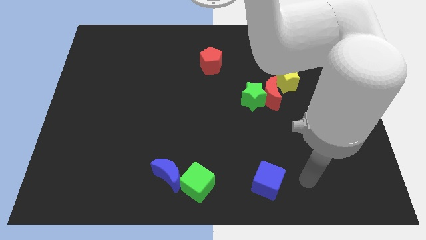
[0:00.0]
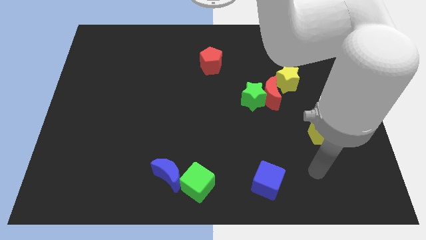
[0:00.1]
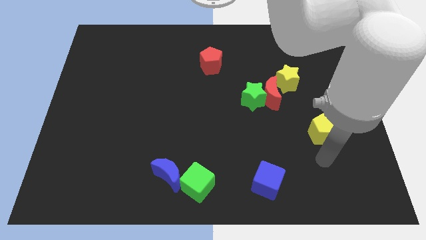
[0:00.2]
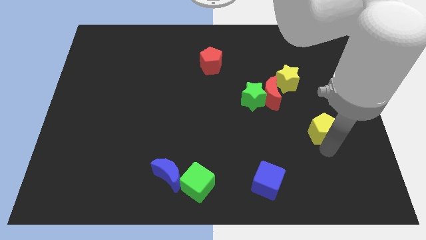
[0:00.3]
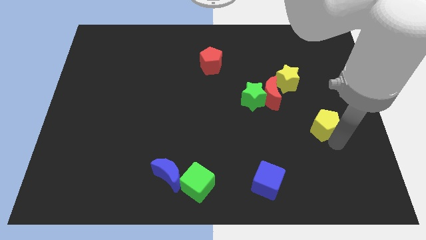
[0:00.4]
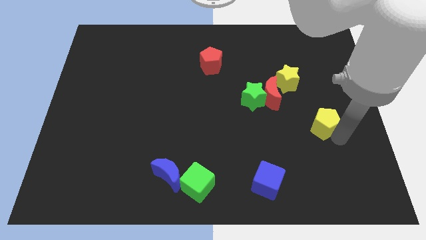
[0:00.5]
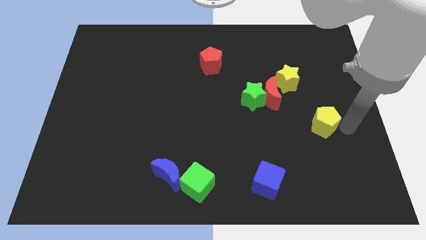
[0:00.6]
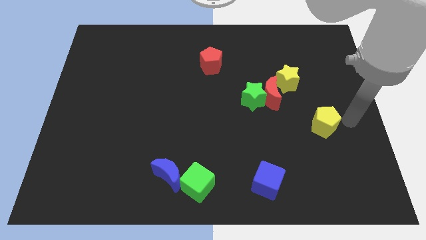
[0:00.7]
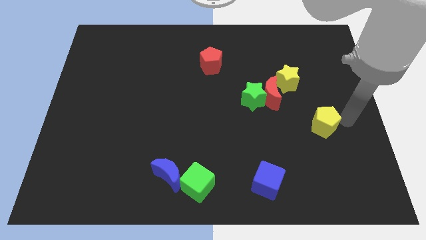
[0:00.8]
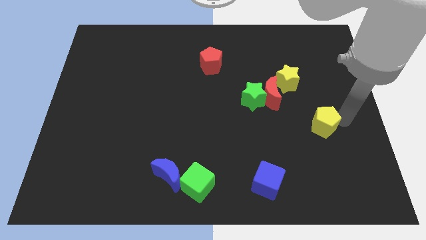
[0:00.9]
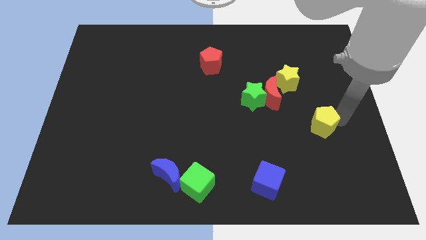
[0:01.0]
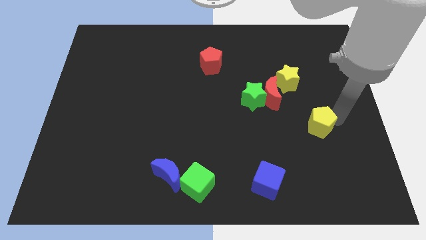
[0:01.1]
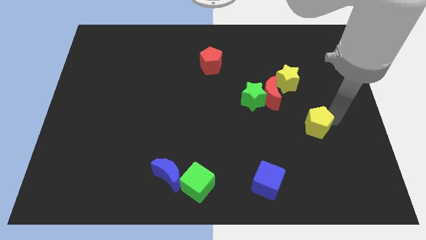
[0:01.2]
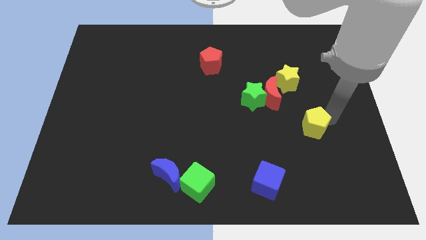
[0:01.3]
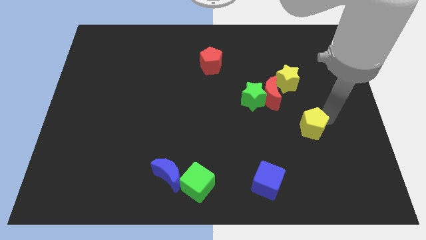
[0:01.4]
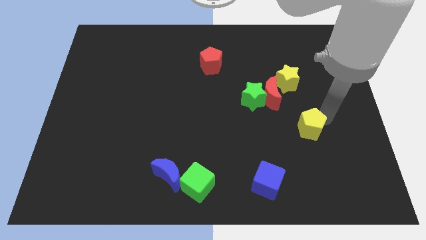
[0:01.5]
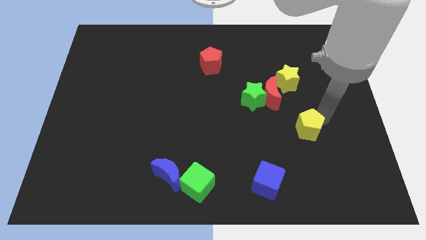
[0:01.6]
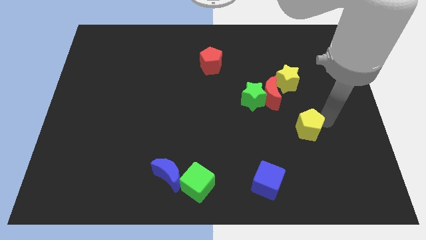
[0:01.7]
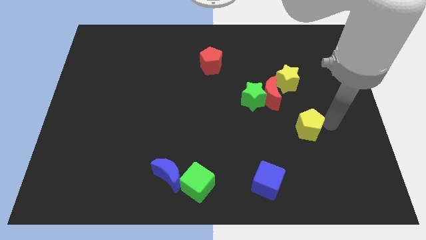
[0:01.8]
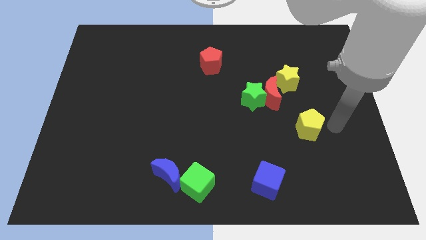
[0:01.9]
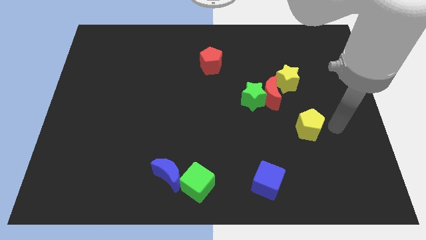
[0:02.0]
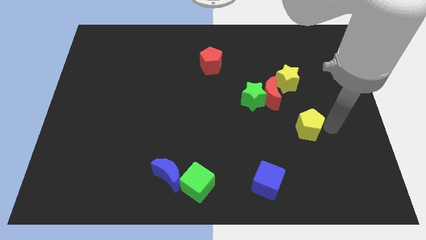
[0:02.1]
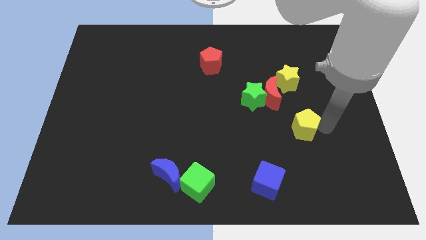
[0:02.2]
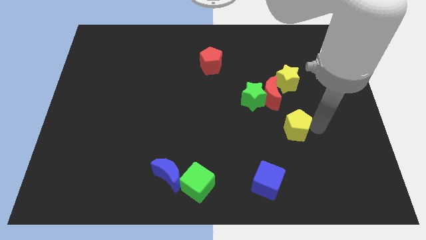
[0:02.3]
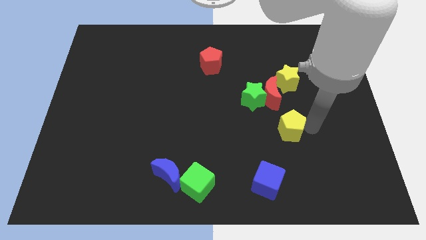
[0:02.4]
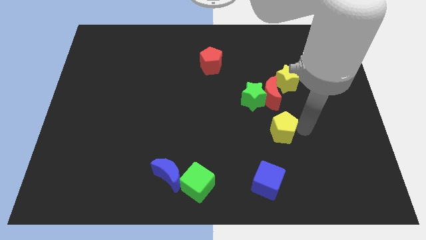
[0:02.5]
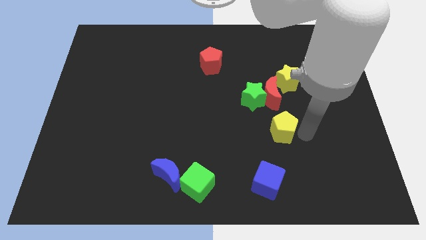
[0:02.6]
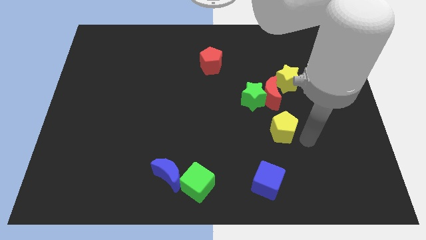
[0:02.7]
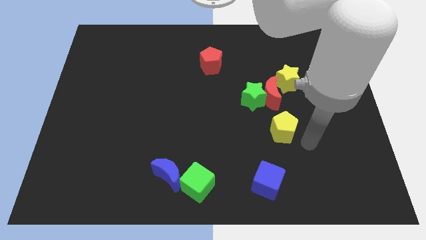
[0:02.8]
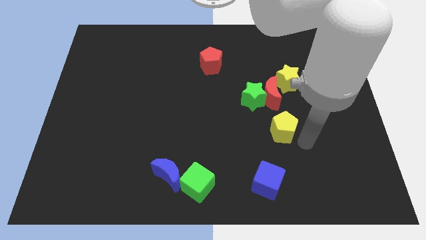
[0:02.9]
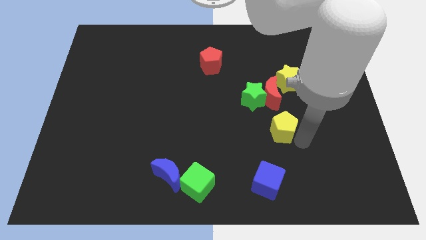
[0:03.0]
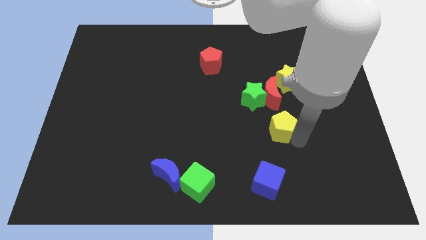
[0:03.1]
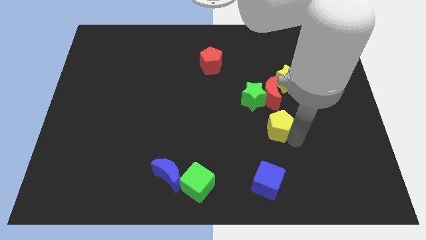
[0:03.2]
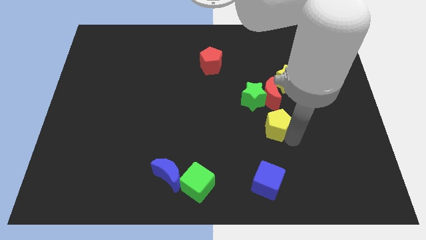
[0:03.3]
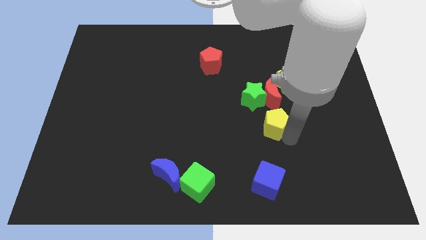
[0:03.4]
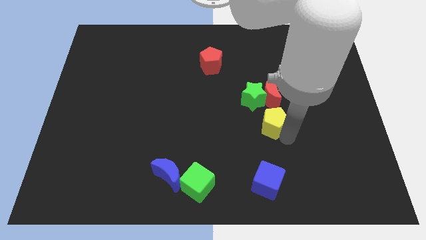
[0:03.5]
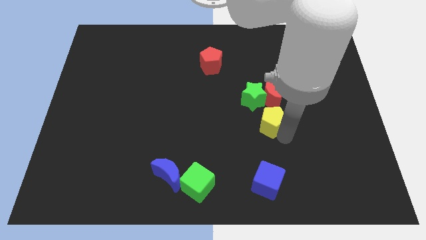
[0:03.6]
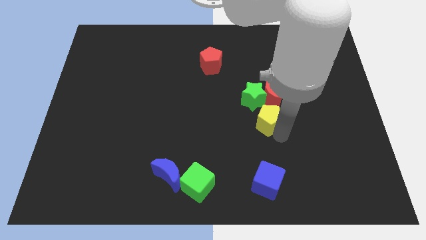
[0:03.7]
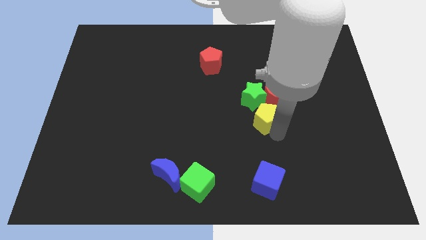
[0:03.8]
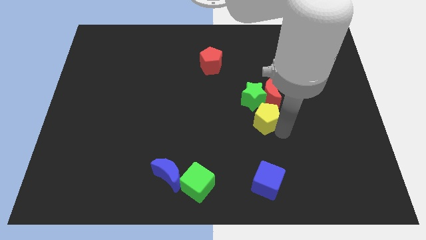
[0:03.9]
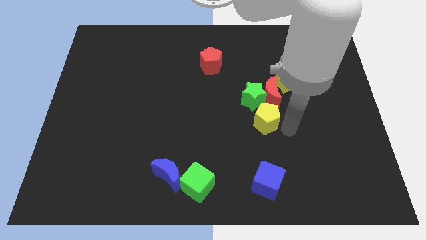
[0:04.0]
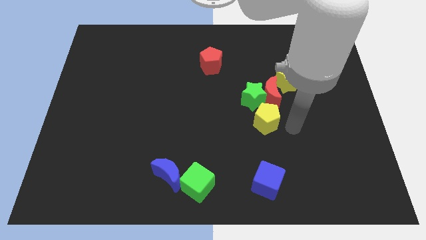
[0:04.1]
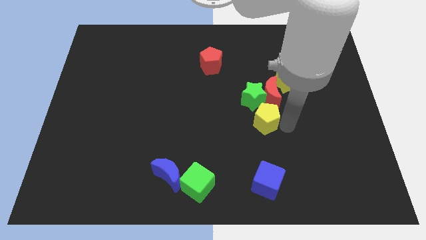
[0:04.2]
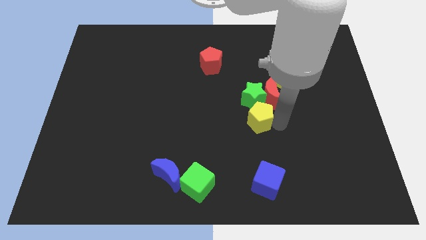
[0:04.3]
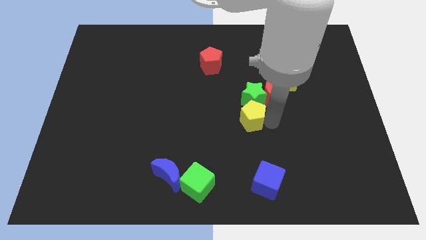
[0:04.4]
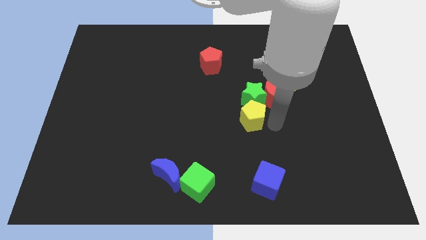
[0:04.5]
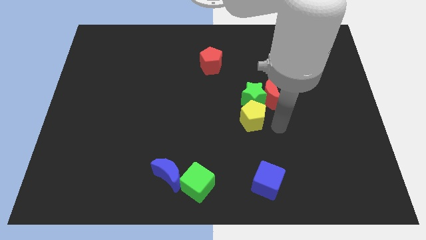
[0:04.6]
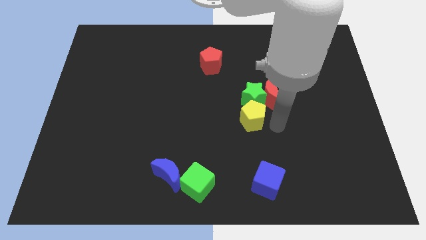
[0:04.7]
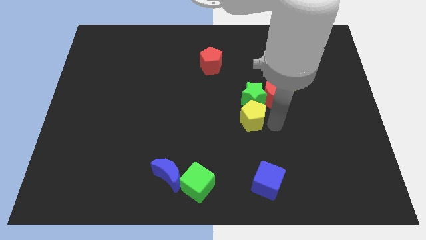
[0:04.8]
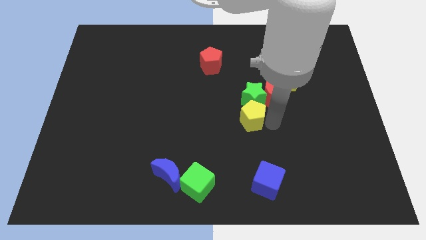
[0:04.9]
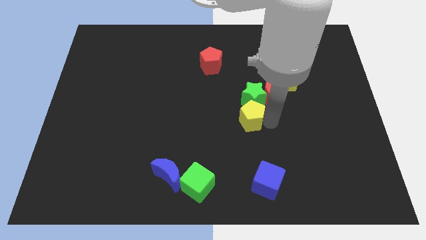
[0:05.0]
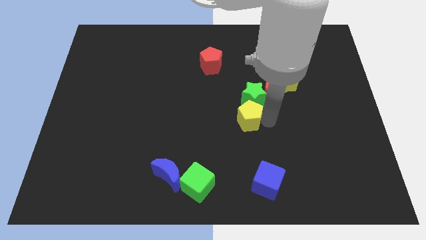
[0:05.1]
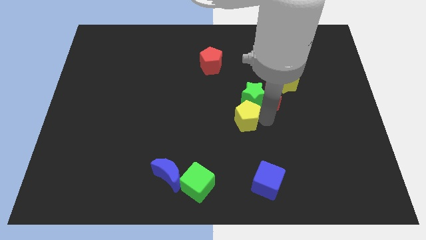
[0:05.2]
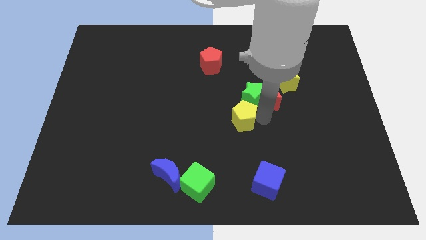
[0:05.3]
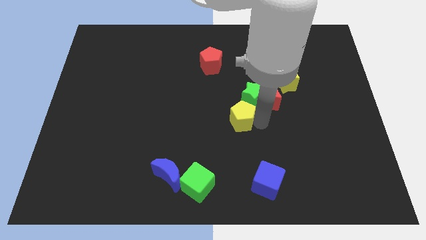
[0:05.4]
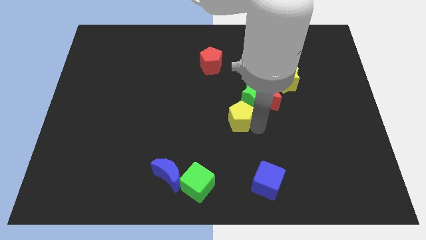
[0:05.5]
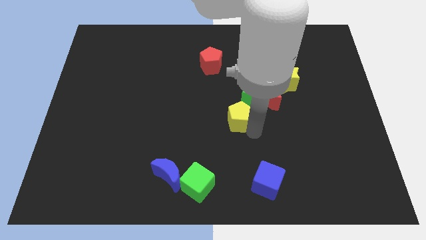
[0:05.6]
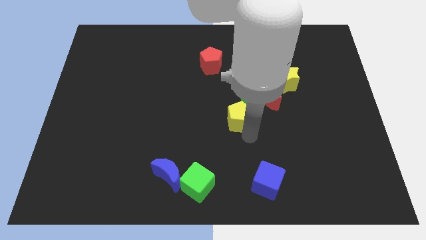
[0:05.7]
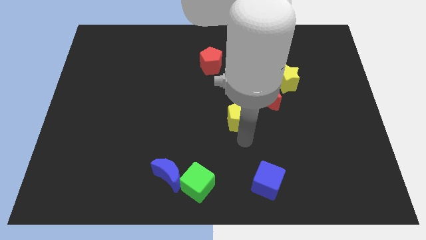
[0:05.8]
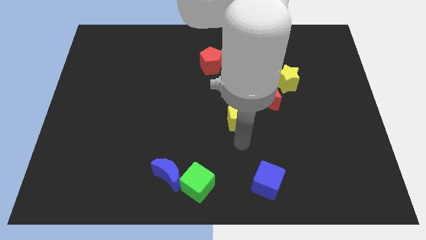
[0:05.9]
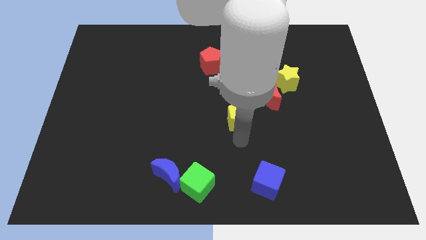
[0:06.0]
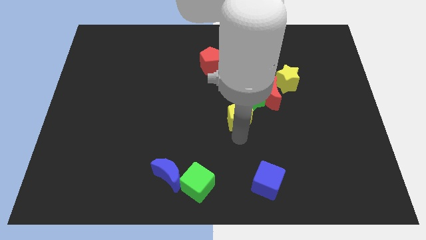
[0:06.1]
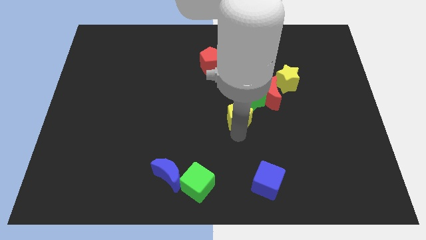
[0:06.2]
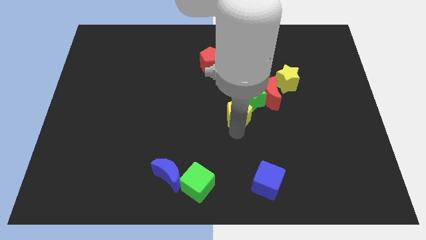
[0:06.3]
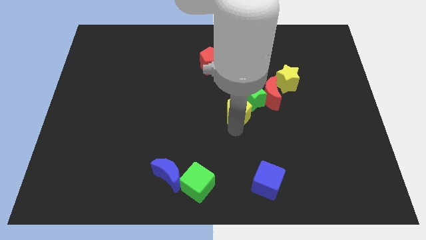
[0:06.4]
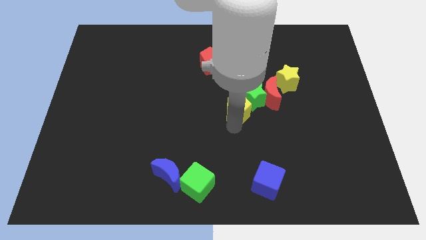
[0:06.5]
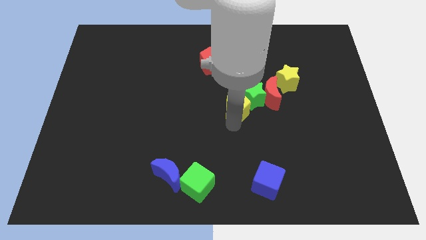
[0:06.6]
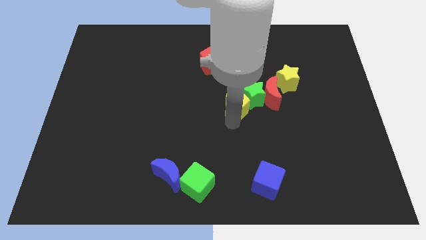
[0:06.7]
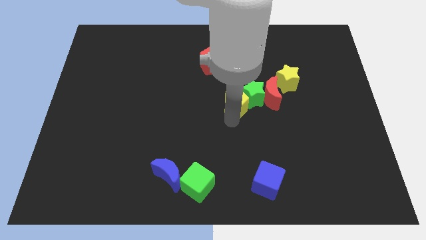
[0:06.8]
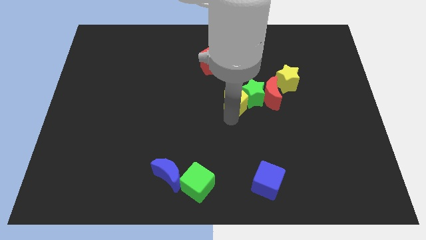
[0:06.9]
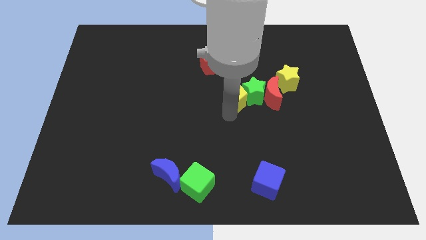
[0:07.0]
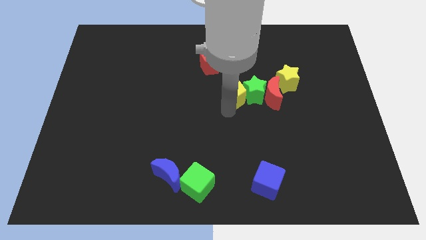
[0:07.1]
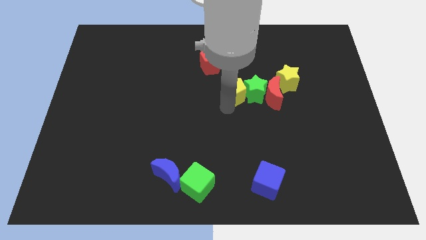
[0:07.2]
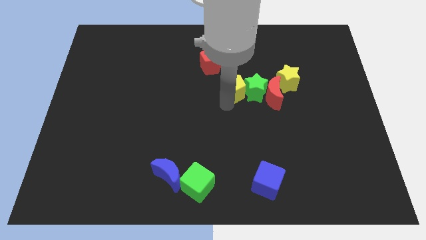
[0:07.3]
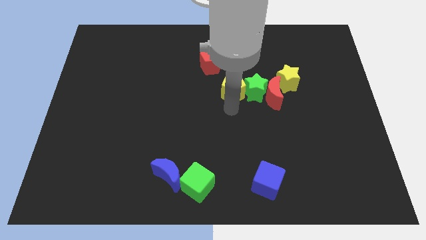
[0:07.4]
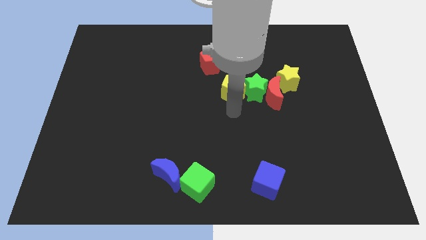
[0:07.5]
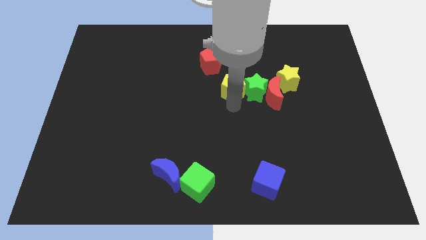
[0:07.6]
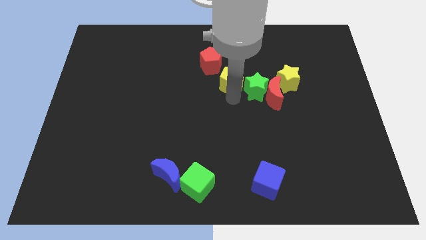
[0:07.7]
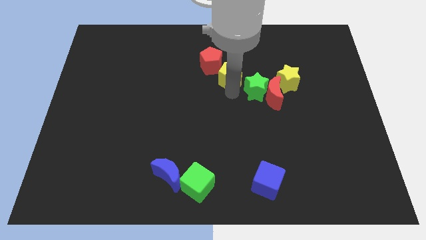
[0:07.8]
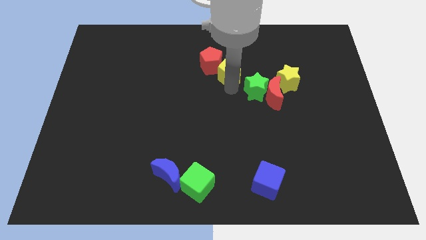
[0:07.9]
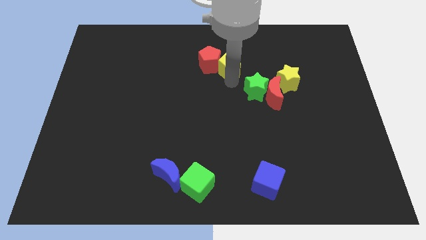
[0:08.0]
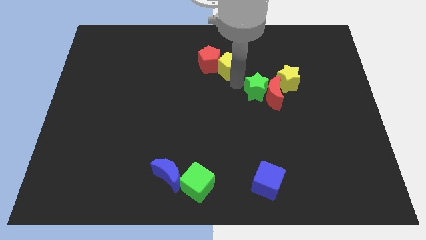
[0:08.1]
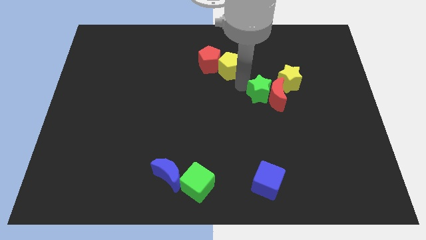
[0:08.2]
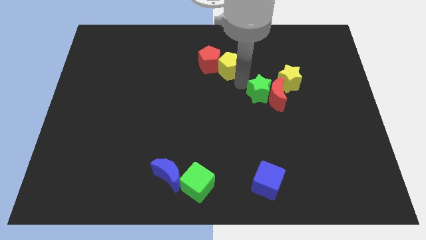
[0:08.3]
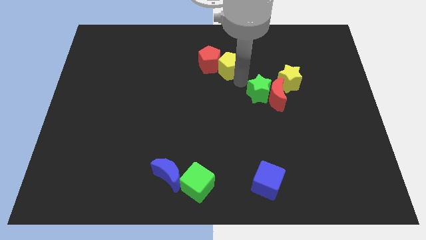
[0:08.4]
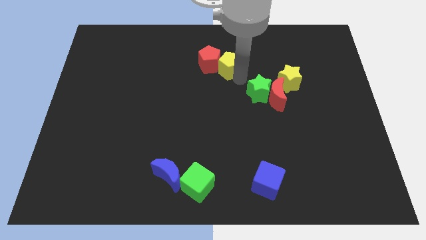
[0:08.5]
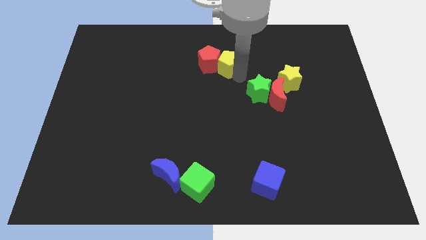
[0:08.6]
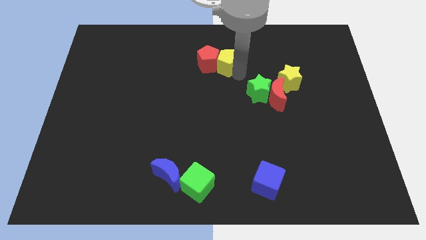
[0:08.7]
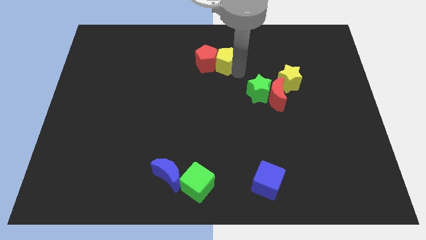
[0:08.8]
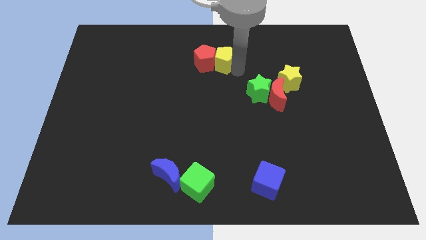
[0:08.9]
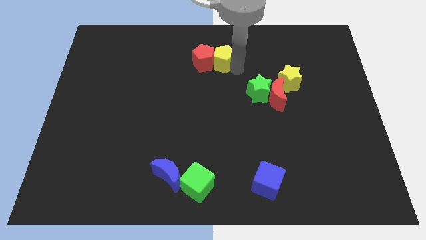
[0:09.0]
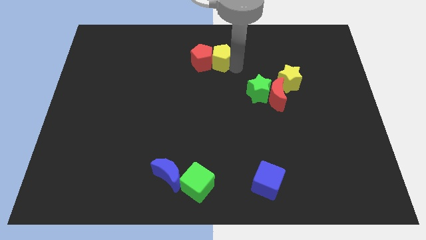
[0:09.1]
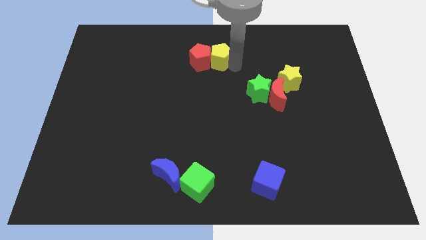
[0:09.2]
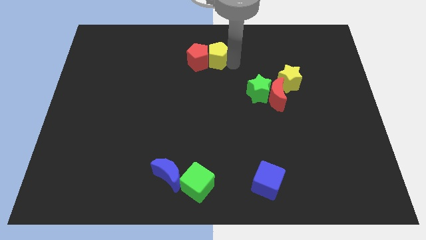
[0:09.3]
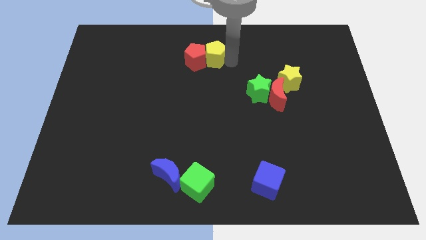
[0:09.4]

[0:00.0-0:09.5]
push the yellow pentagon to the top
